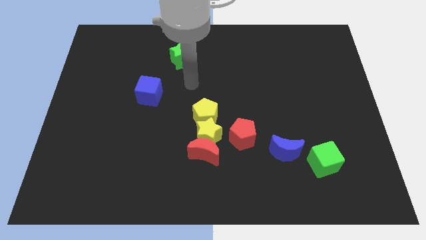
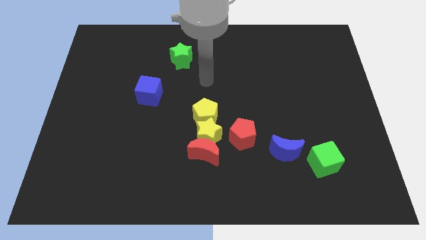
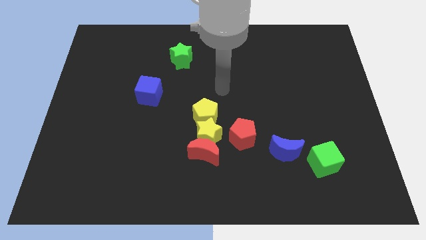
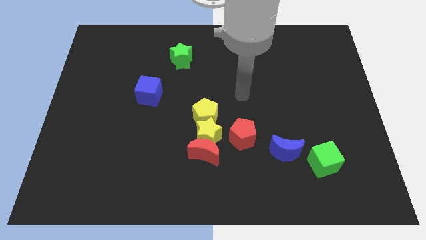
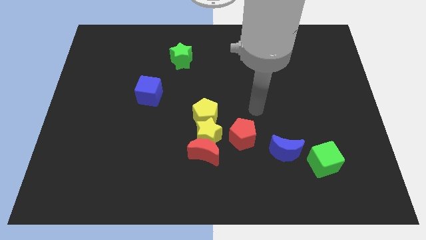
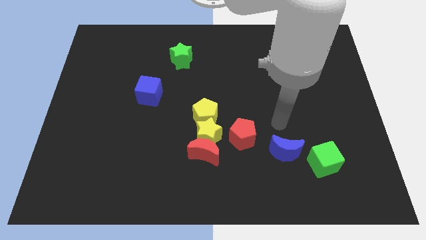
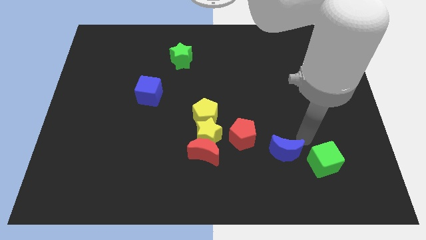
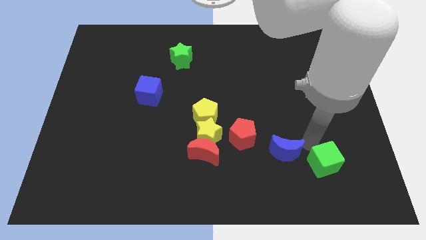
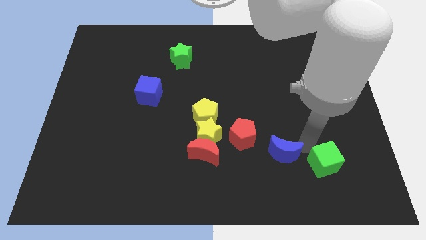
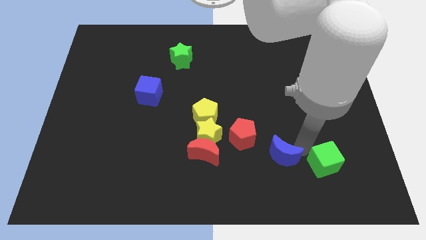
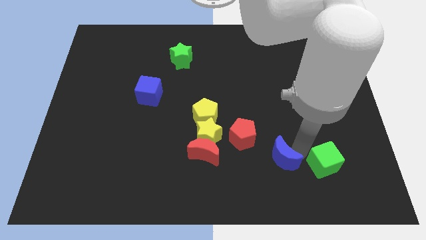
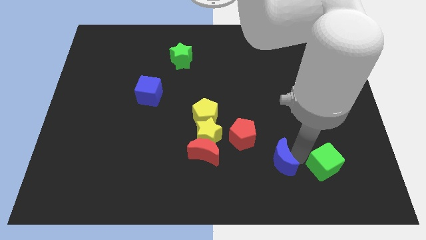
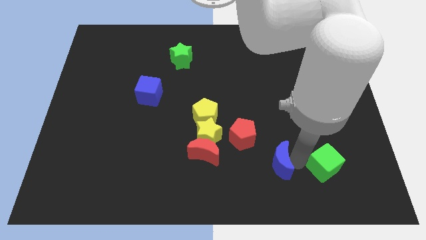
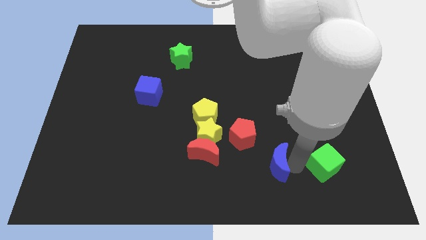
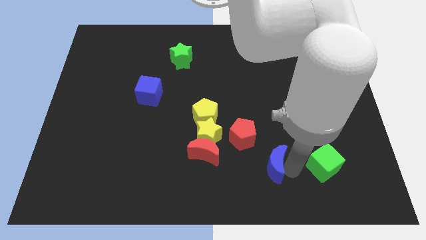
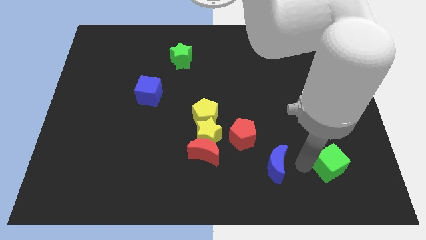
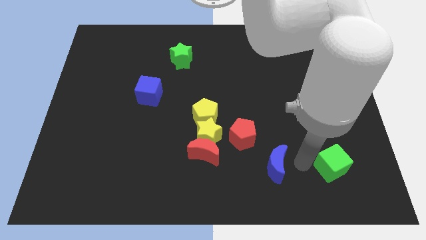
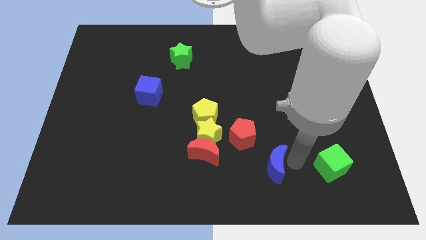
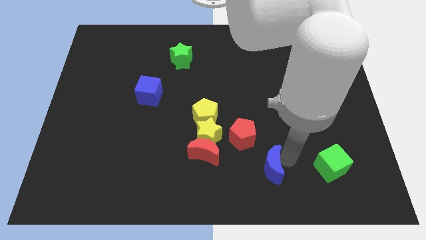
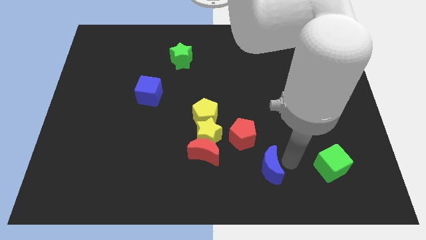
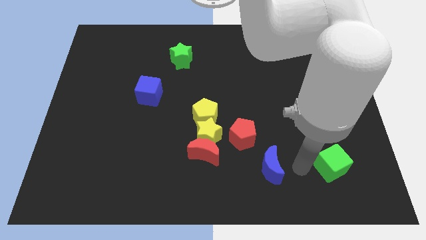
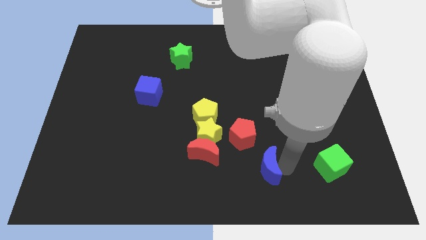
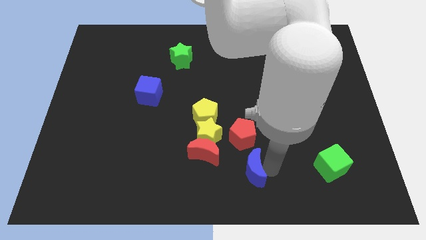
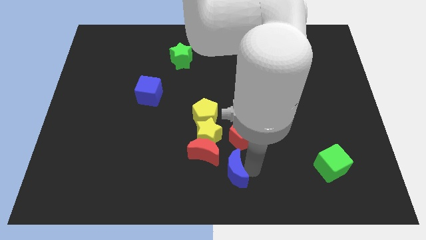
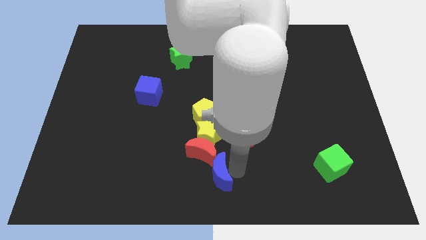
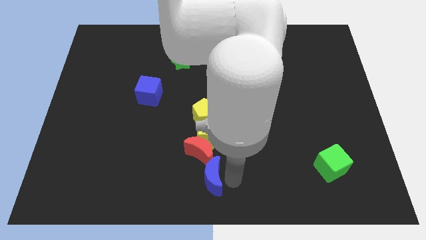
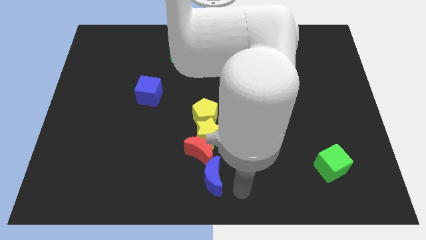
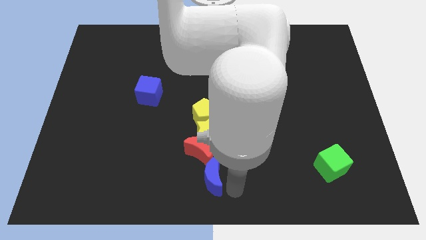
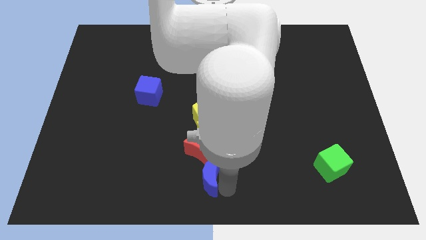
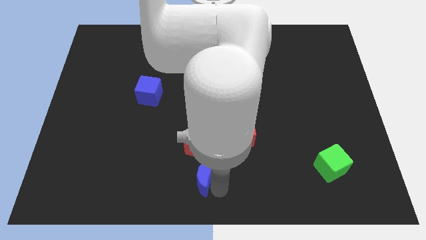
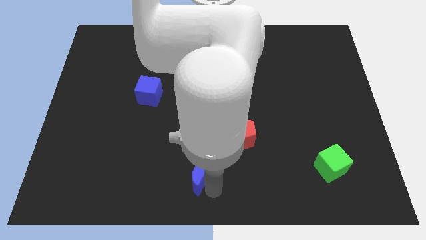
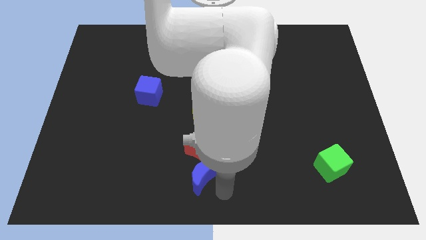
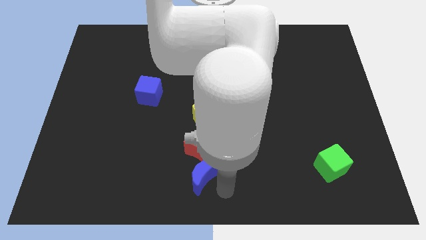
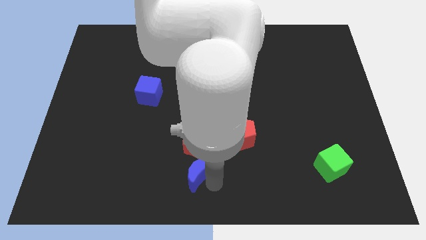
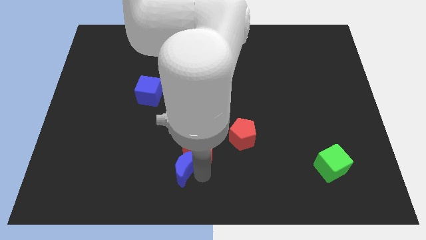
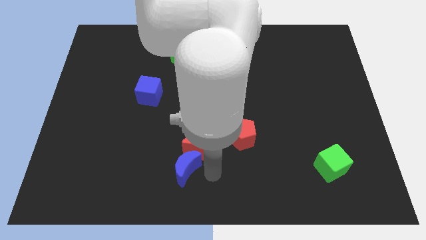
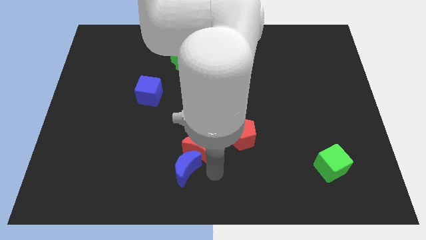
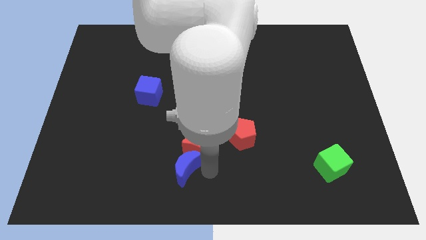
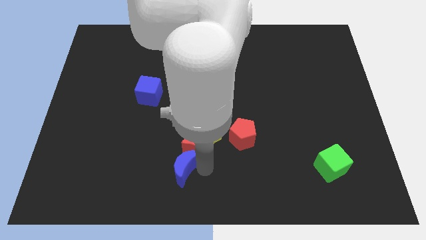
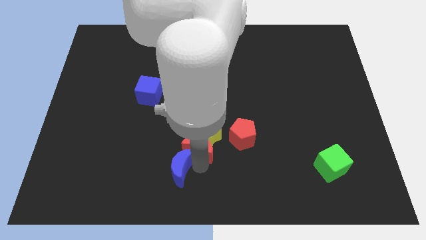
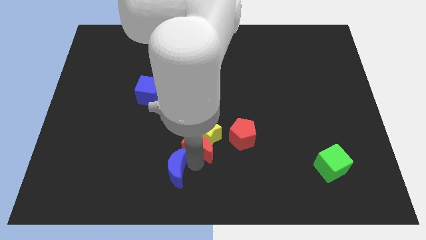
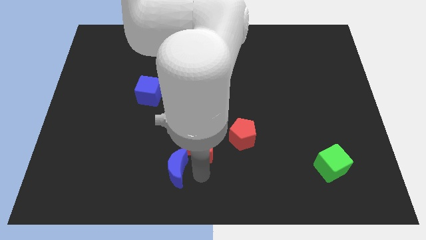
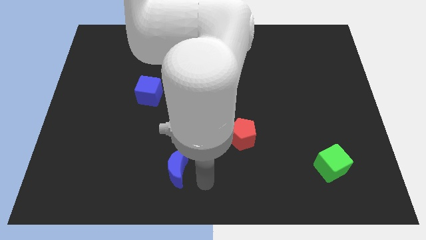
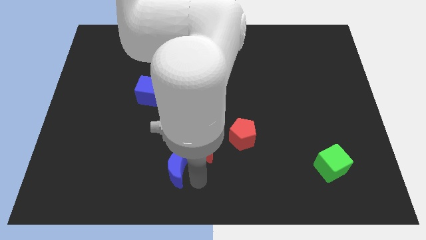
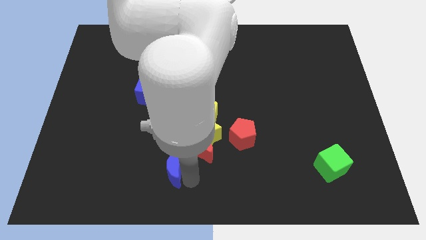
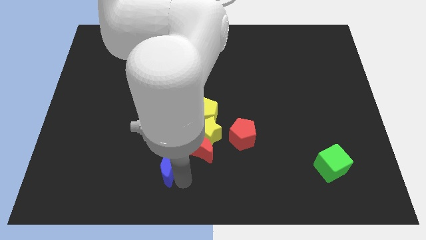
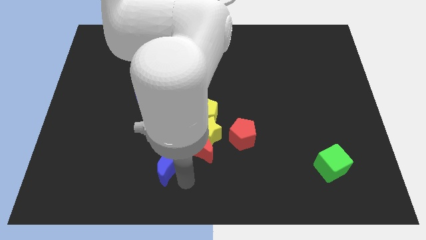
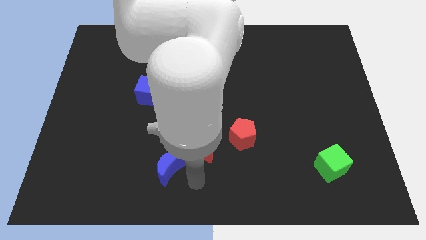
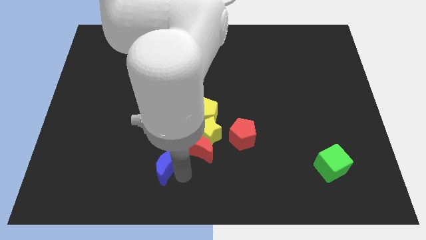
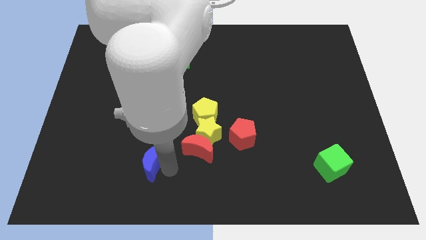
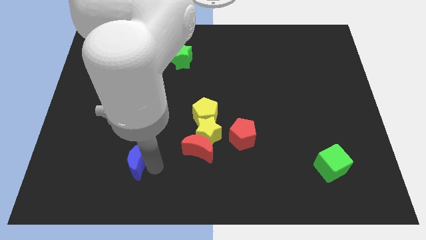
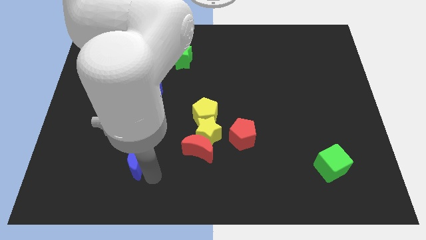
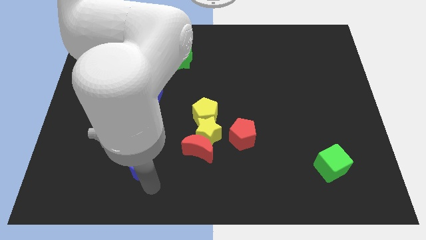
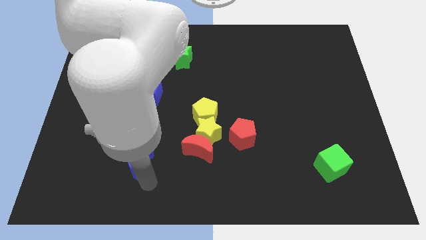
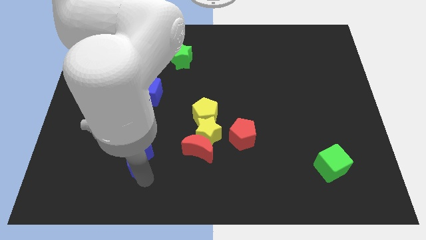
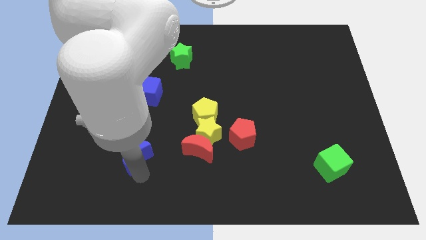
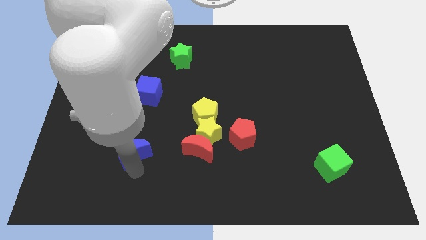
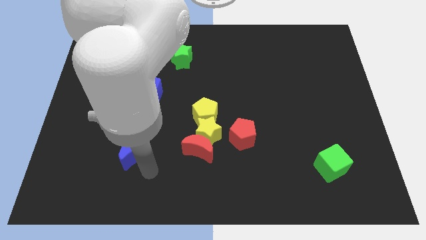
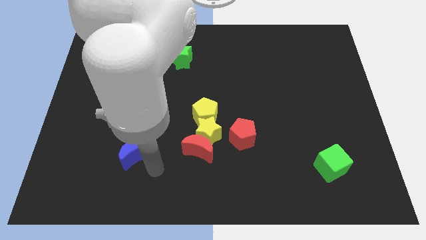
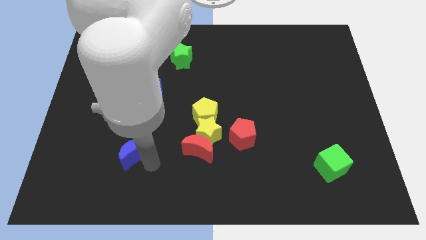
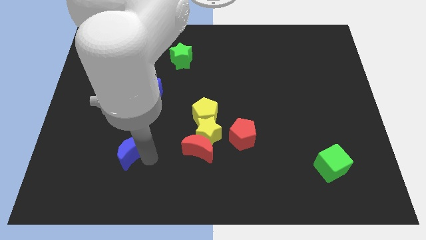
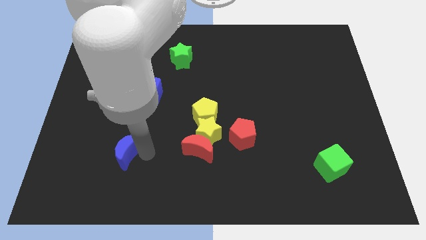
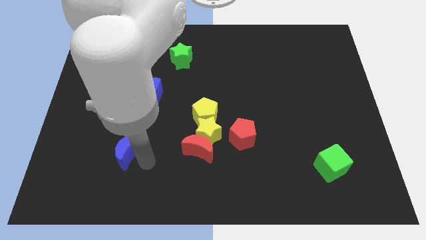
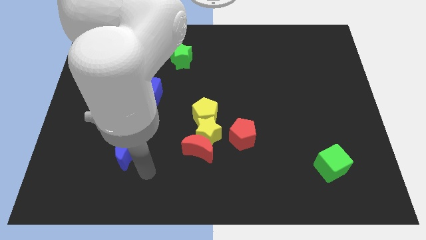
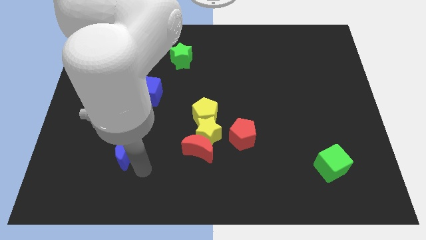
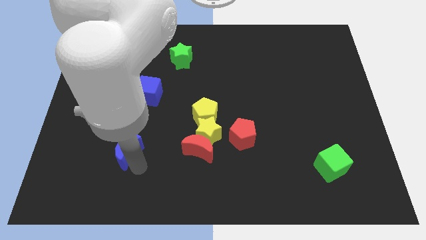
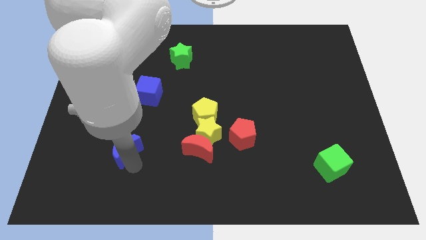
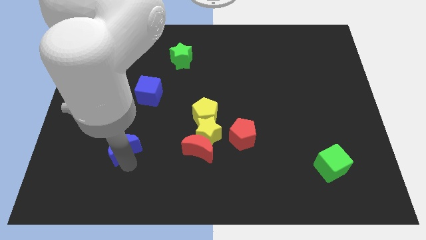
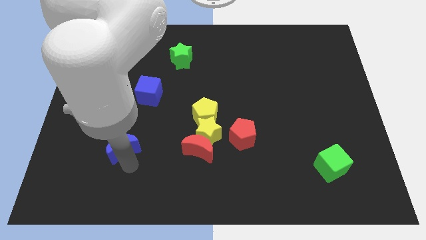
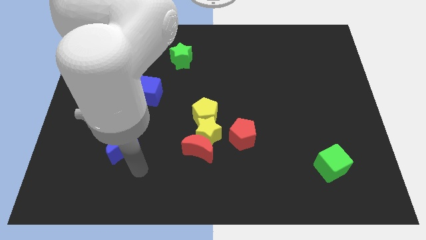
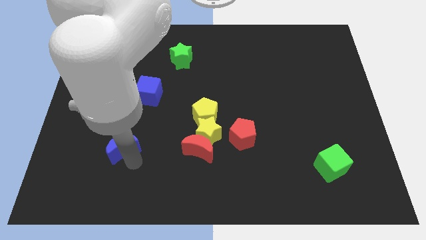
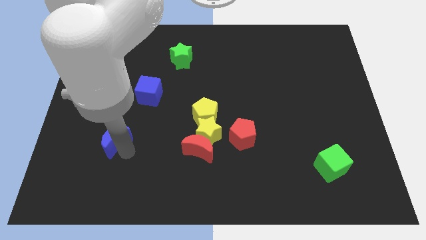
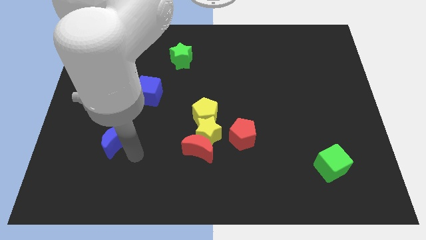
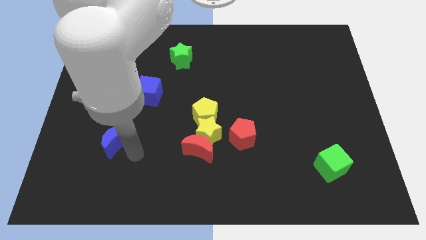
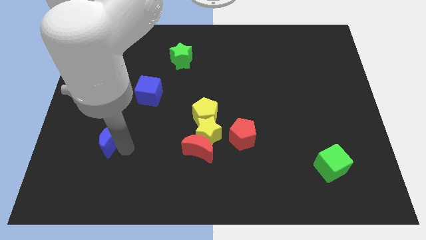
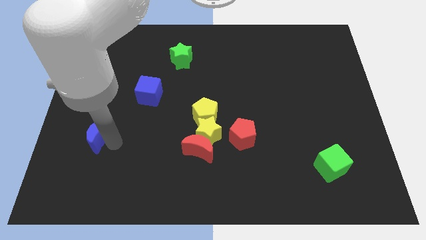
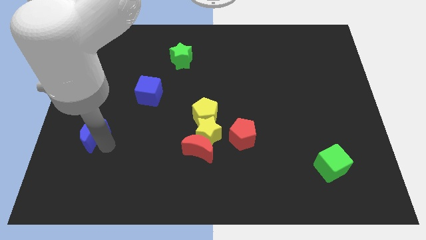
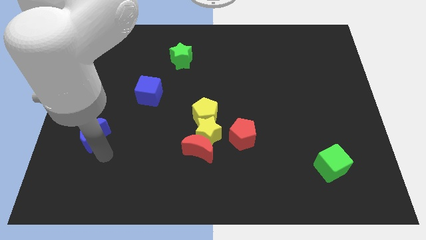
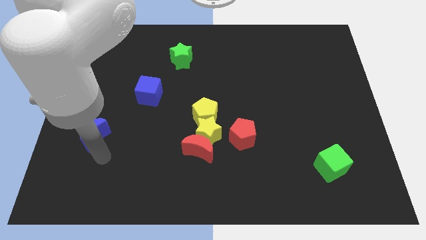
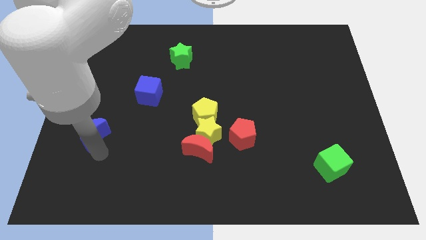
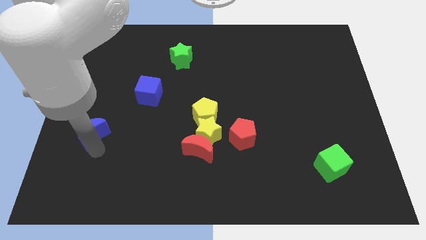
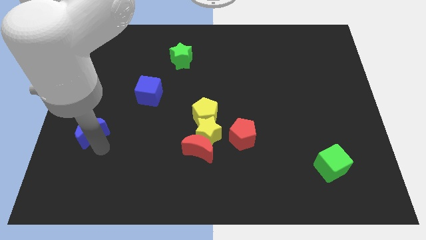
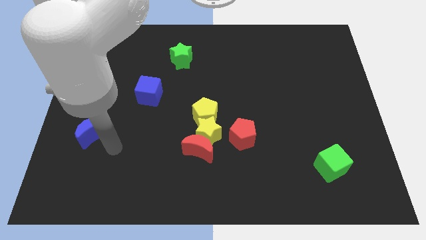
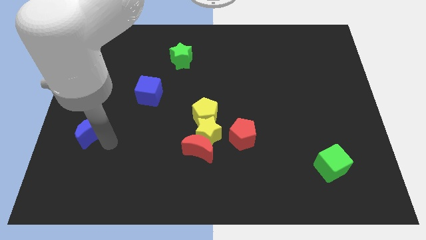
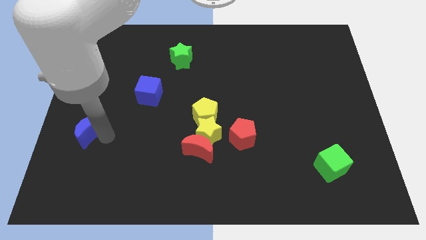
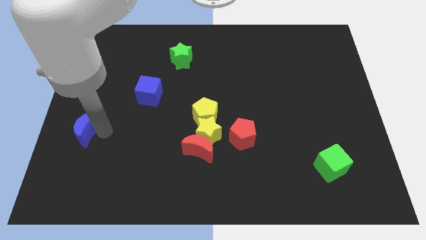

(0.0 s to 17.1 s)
push the blue moon to the left side of the board
